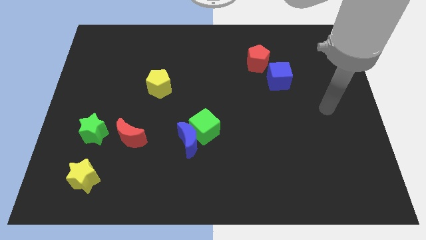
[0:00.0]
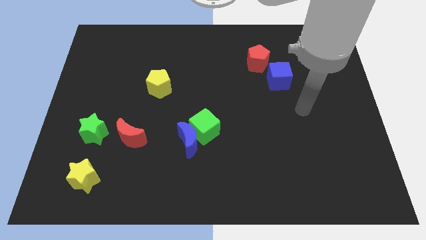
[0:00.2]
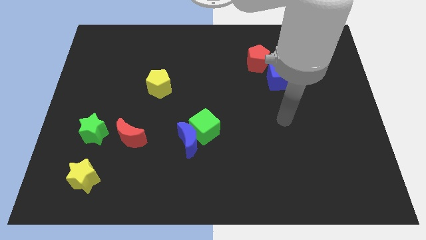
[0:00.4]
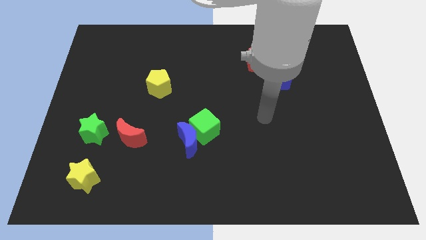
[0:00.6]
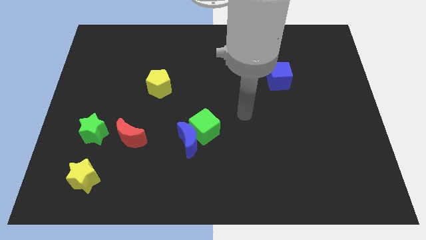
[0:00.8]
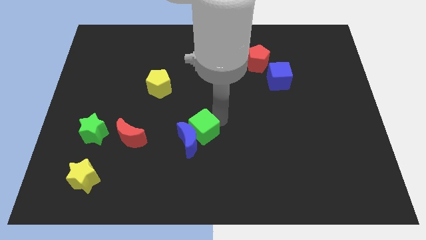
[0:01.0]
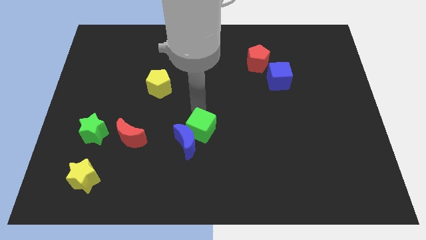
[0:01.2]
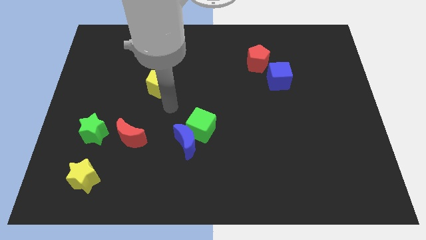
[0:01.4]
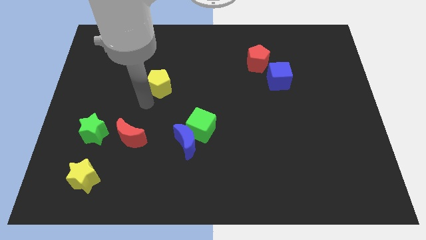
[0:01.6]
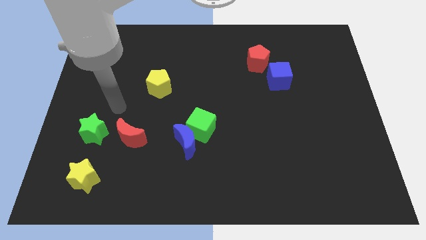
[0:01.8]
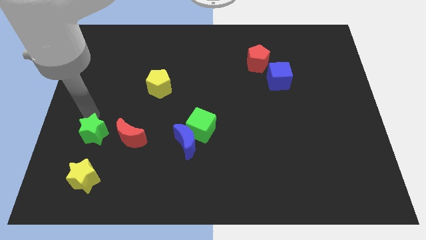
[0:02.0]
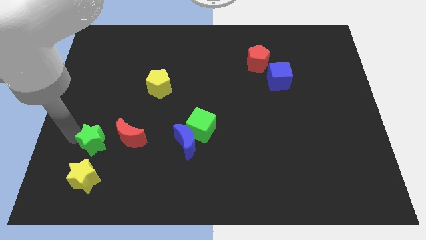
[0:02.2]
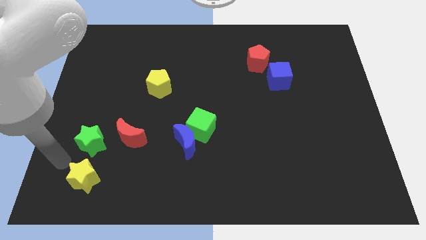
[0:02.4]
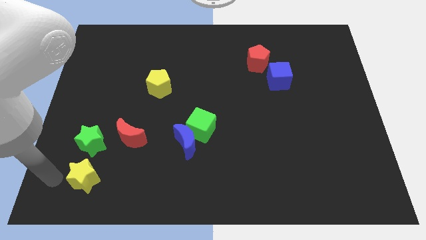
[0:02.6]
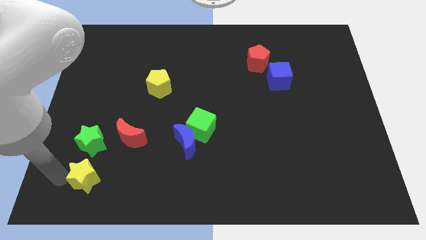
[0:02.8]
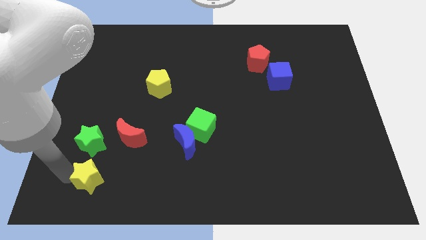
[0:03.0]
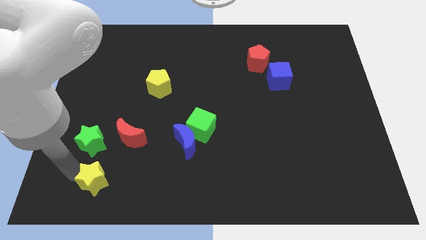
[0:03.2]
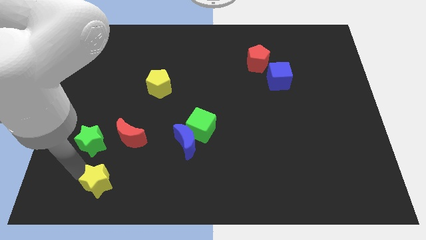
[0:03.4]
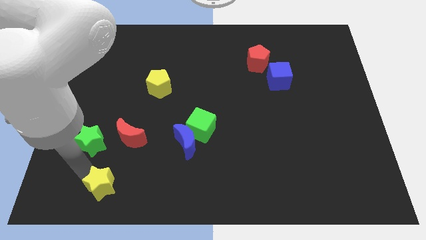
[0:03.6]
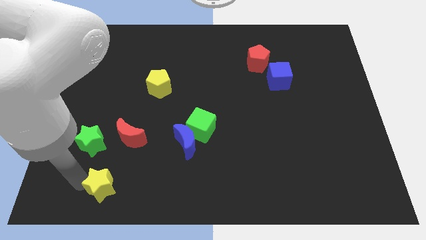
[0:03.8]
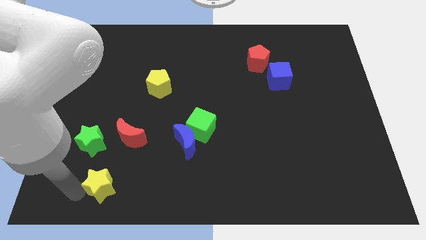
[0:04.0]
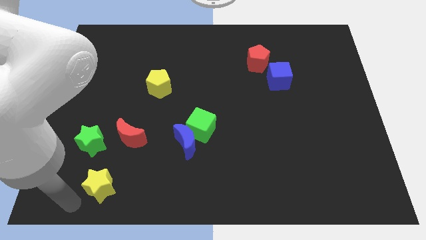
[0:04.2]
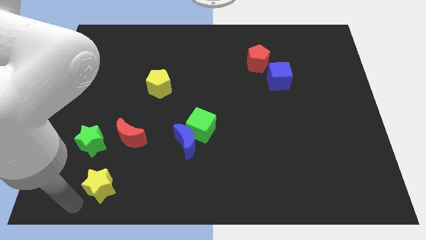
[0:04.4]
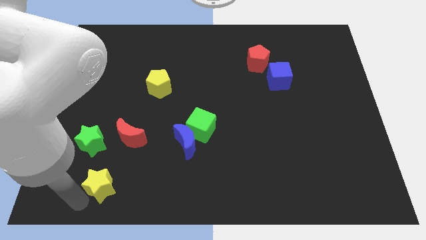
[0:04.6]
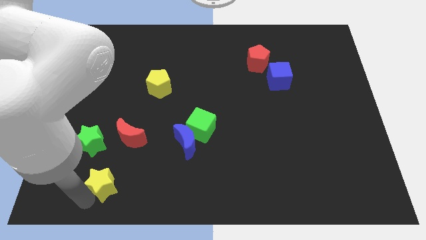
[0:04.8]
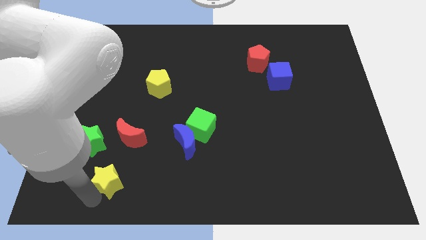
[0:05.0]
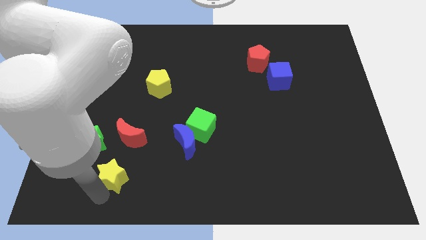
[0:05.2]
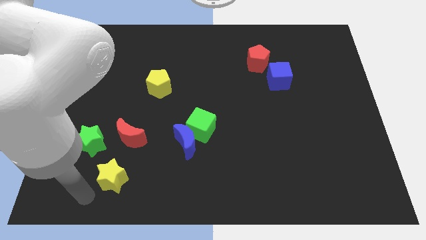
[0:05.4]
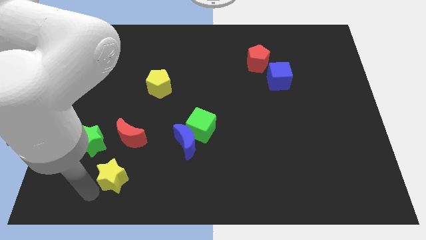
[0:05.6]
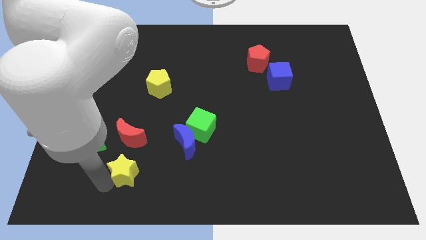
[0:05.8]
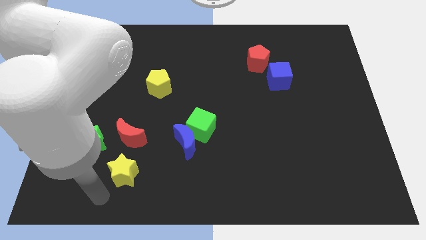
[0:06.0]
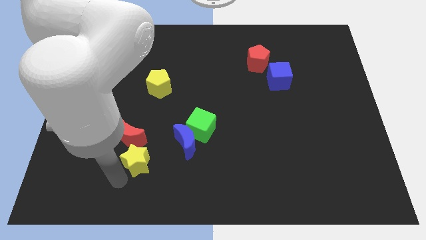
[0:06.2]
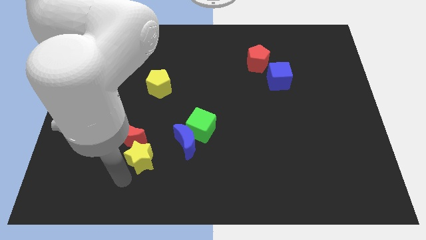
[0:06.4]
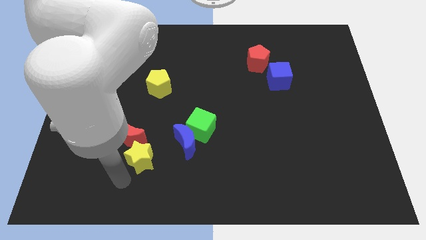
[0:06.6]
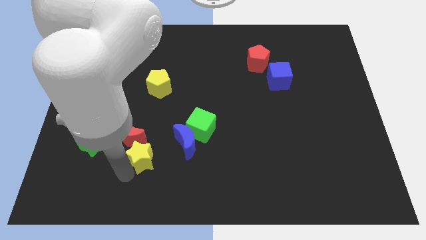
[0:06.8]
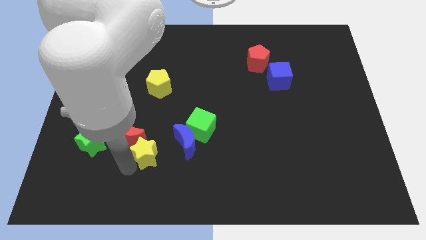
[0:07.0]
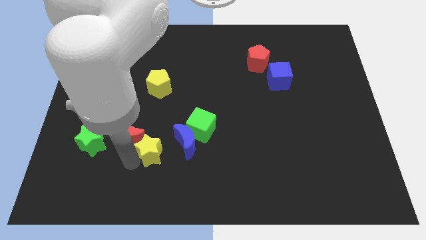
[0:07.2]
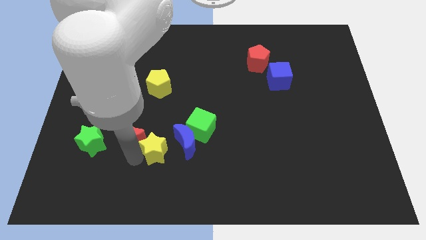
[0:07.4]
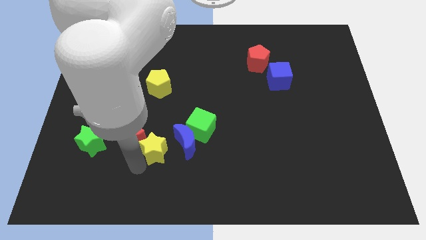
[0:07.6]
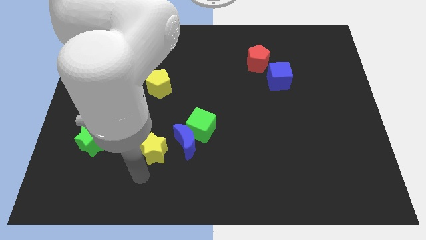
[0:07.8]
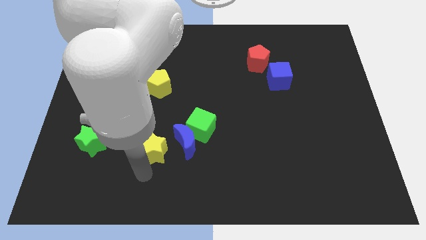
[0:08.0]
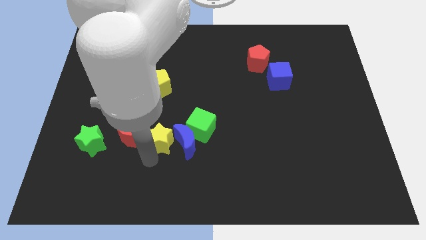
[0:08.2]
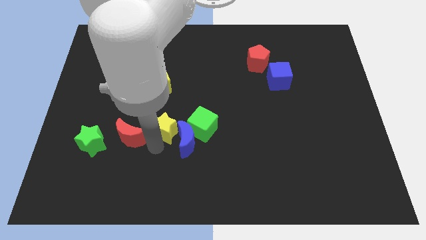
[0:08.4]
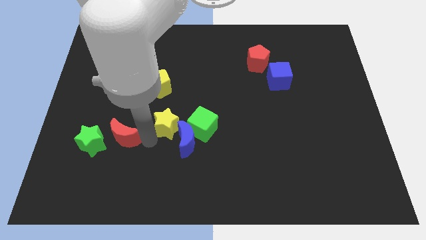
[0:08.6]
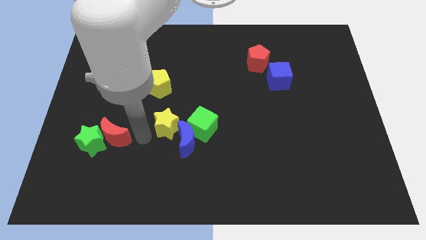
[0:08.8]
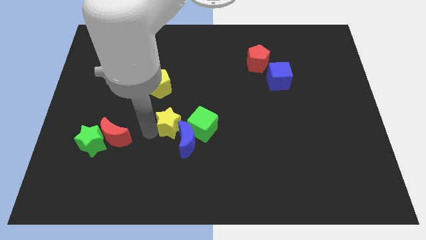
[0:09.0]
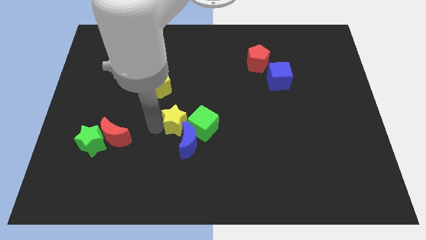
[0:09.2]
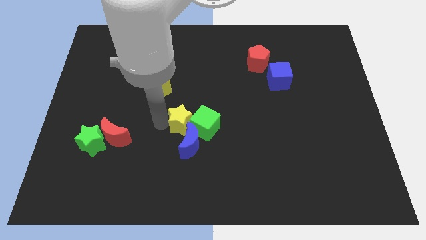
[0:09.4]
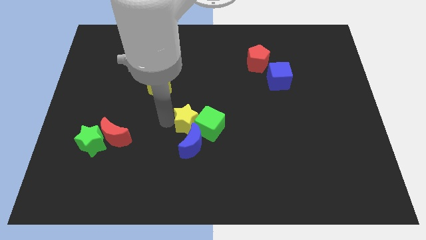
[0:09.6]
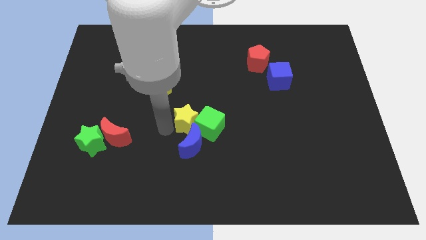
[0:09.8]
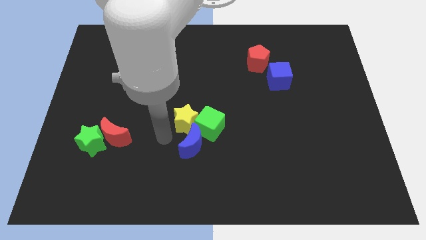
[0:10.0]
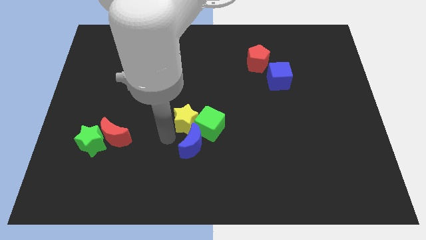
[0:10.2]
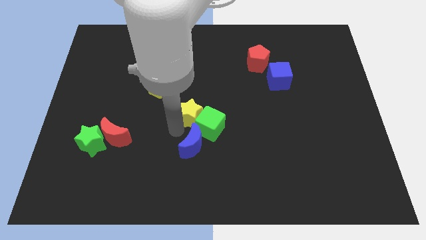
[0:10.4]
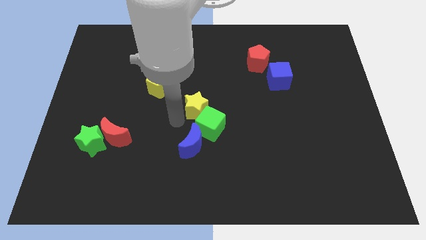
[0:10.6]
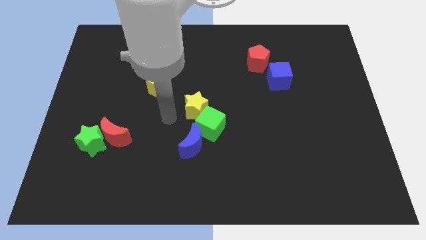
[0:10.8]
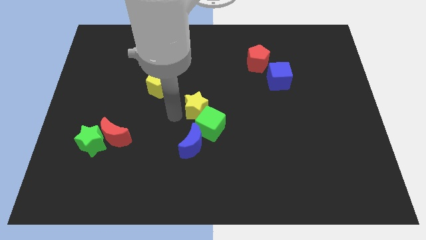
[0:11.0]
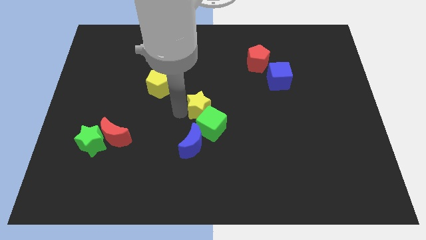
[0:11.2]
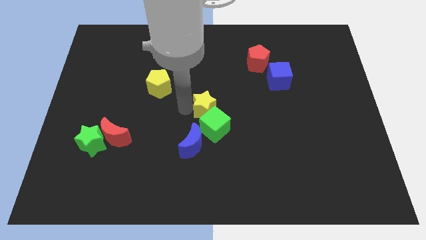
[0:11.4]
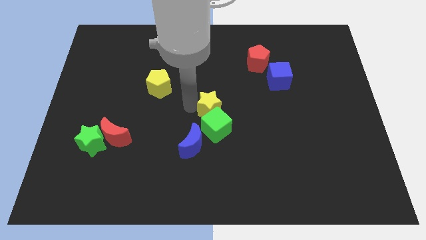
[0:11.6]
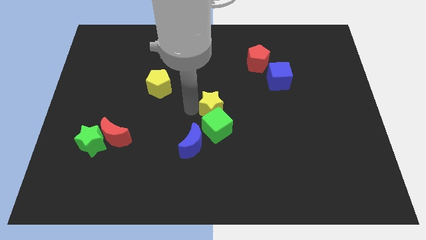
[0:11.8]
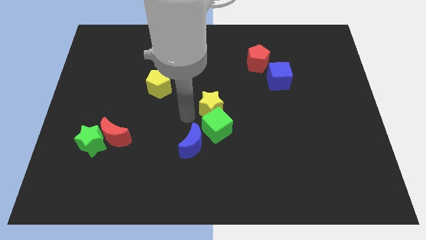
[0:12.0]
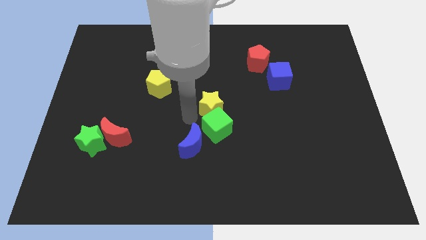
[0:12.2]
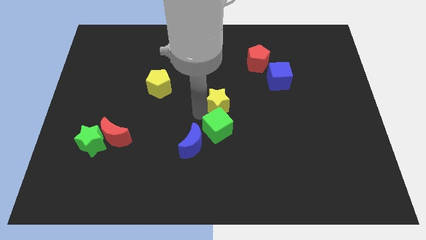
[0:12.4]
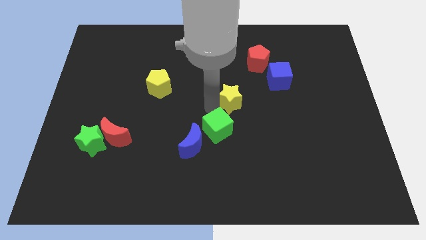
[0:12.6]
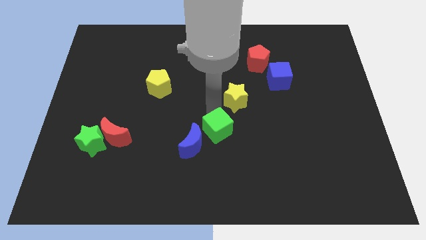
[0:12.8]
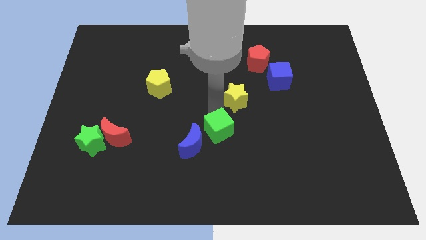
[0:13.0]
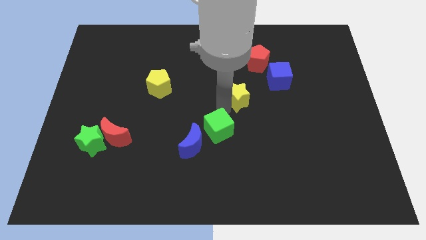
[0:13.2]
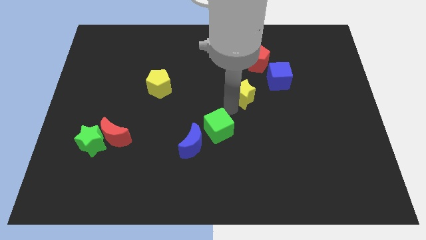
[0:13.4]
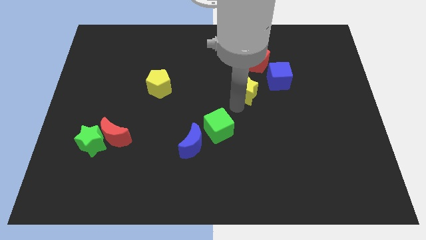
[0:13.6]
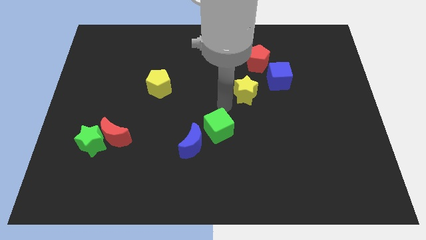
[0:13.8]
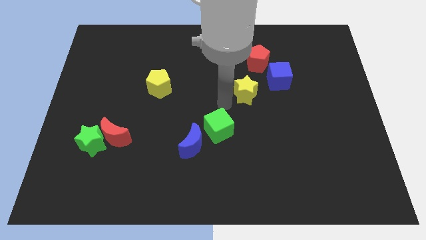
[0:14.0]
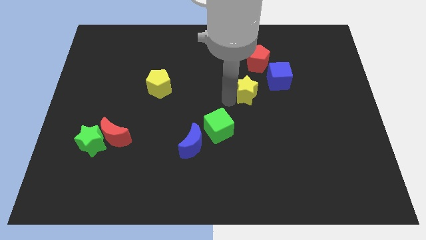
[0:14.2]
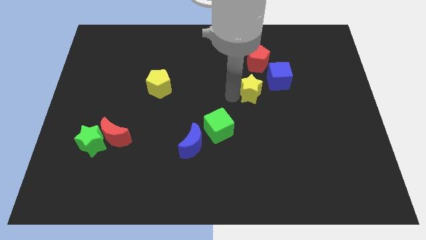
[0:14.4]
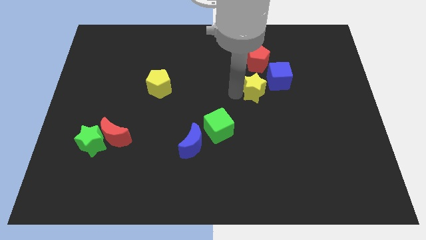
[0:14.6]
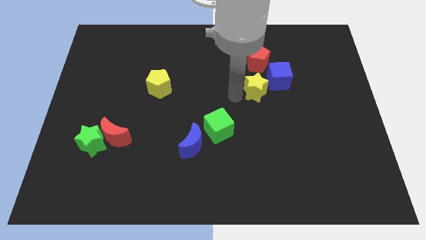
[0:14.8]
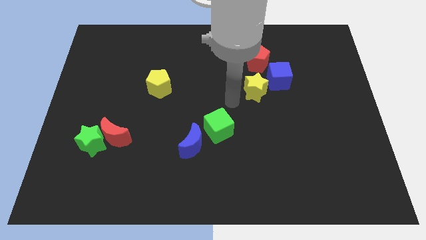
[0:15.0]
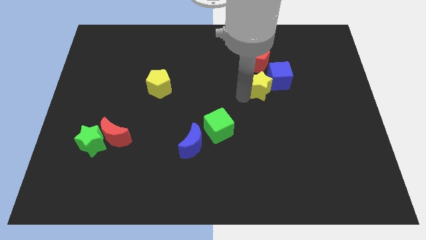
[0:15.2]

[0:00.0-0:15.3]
slide the yellow star to the blue cube
